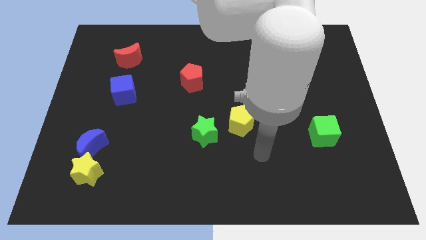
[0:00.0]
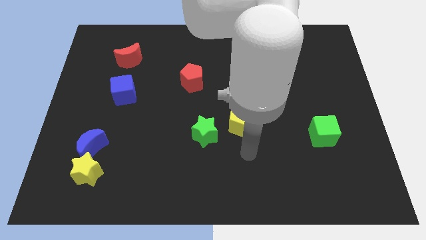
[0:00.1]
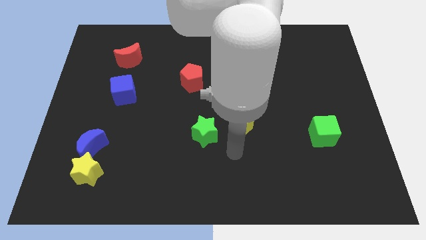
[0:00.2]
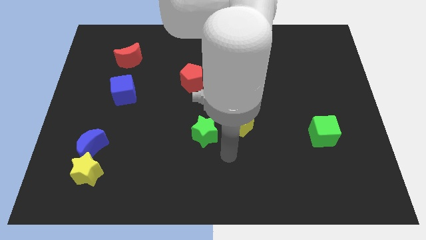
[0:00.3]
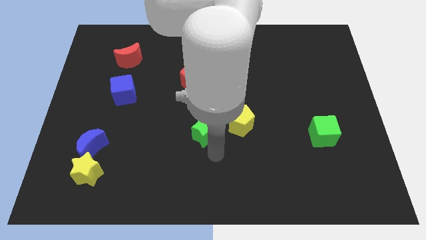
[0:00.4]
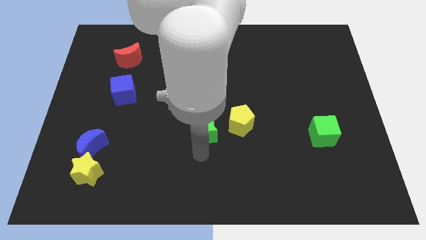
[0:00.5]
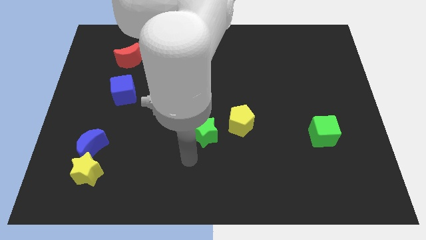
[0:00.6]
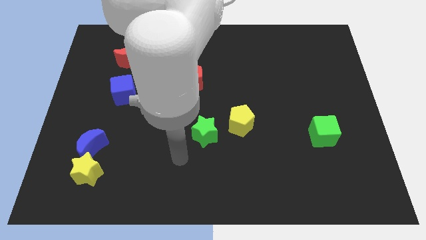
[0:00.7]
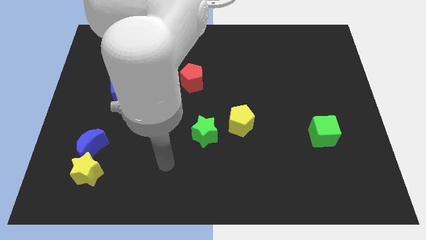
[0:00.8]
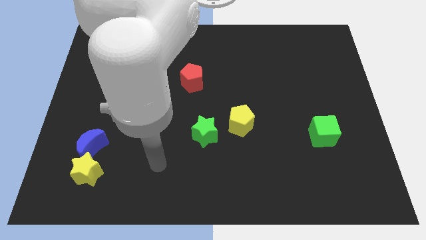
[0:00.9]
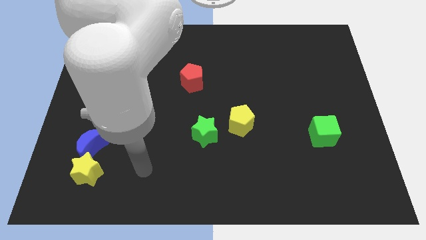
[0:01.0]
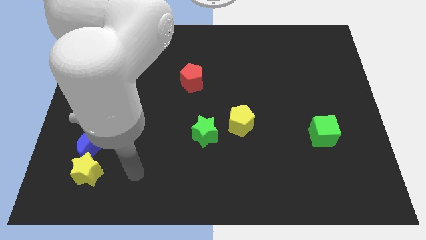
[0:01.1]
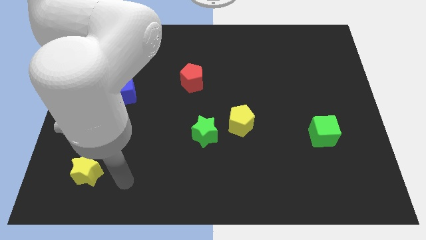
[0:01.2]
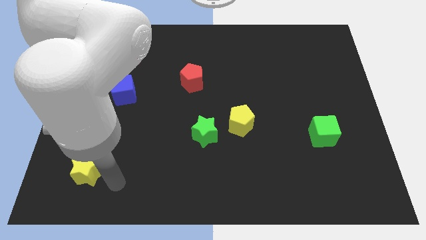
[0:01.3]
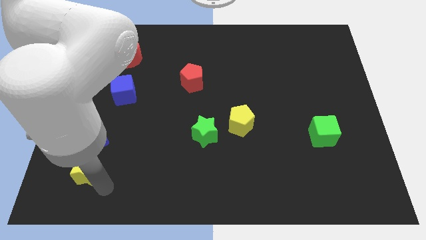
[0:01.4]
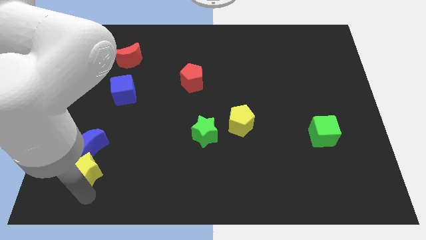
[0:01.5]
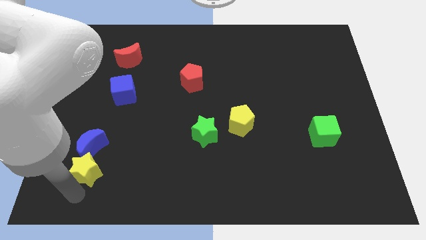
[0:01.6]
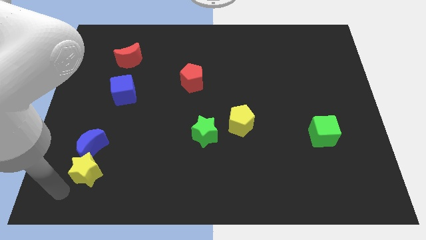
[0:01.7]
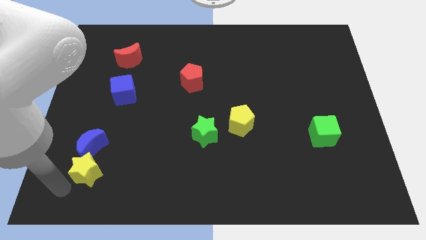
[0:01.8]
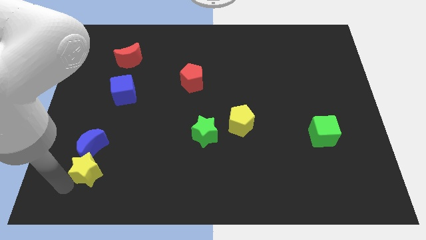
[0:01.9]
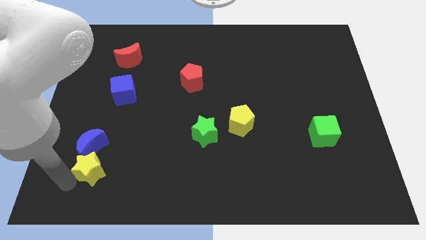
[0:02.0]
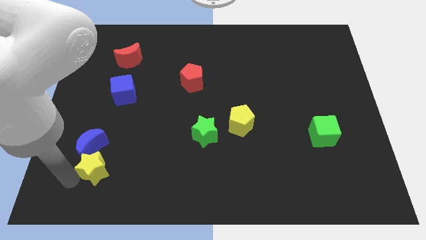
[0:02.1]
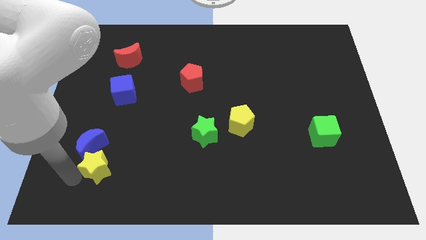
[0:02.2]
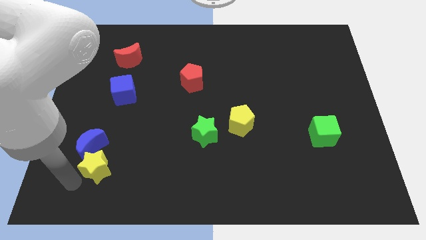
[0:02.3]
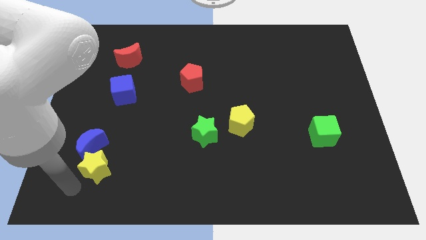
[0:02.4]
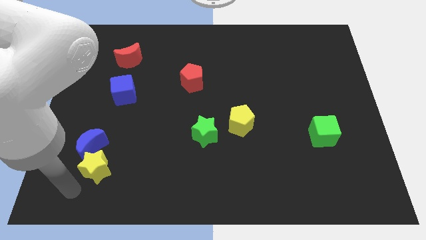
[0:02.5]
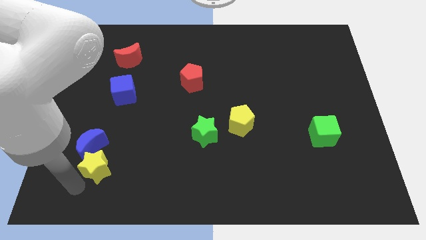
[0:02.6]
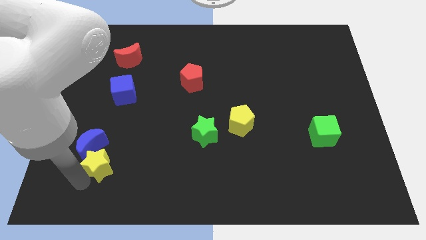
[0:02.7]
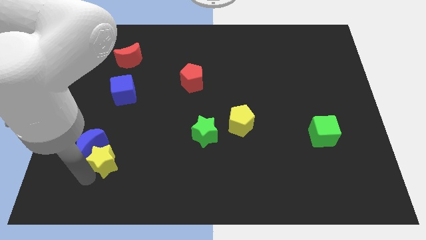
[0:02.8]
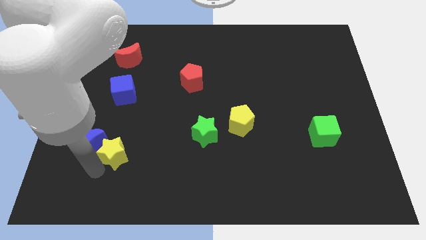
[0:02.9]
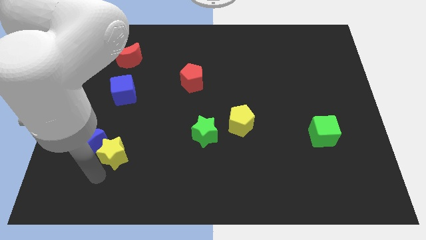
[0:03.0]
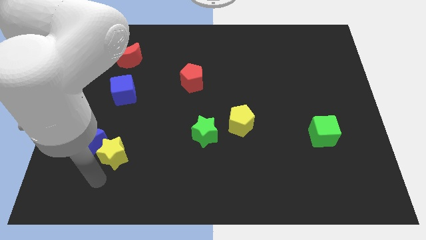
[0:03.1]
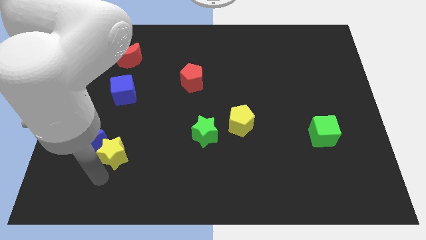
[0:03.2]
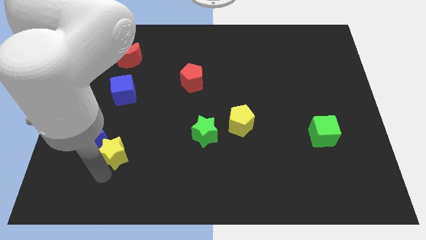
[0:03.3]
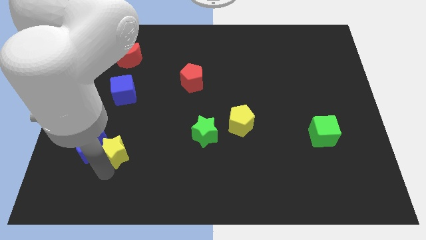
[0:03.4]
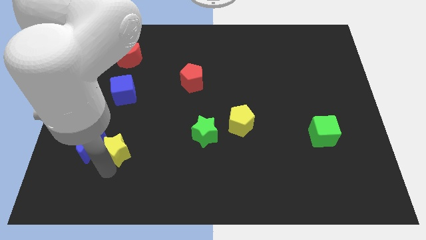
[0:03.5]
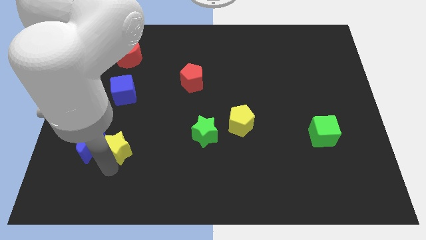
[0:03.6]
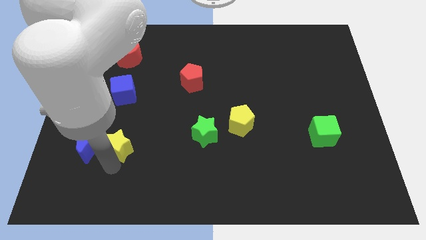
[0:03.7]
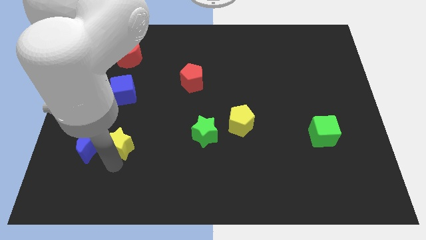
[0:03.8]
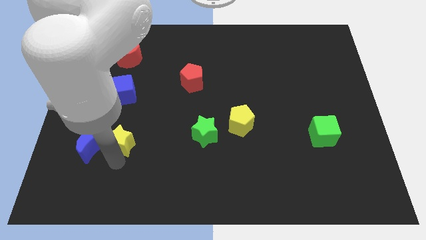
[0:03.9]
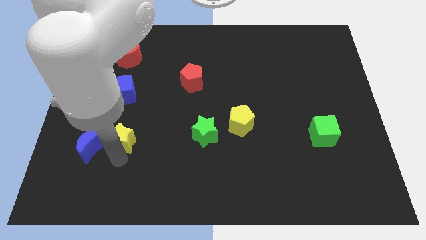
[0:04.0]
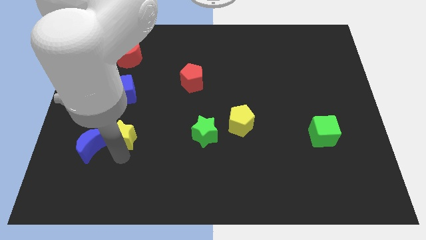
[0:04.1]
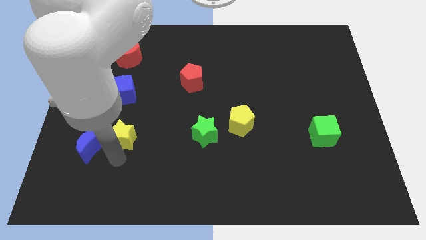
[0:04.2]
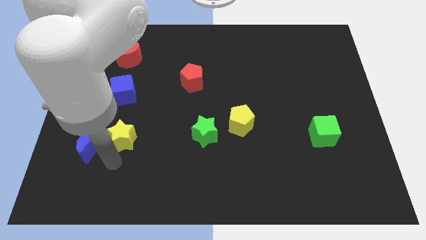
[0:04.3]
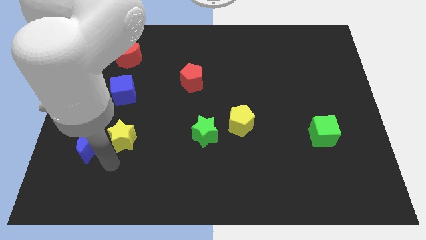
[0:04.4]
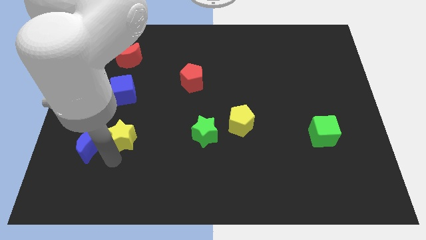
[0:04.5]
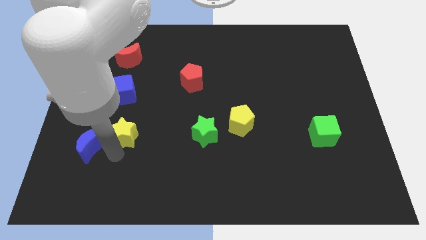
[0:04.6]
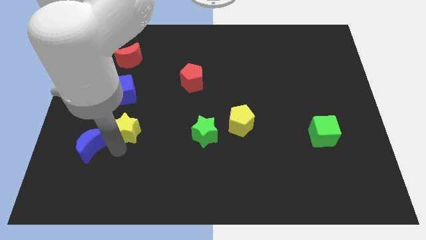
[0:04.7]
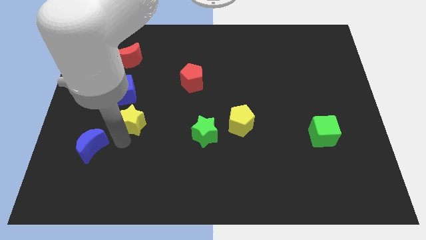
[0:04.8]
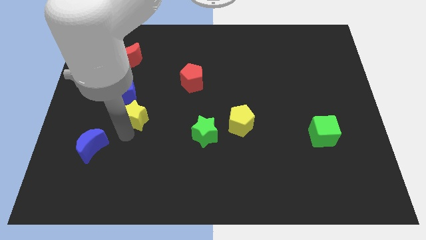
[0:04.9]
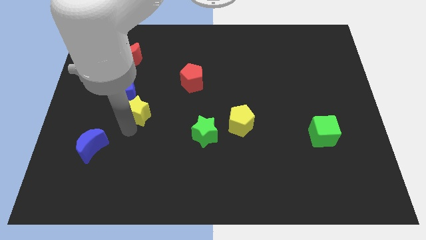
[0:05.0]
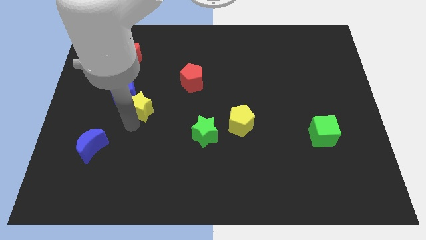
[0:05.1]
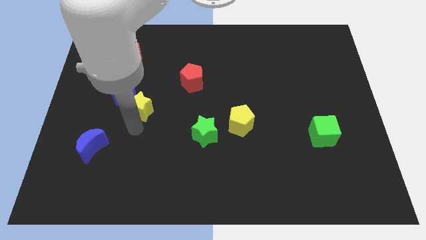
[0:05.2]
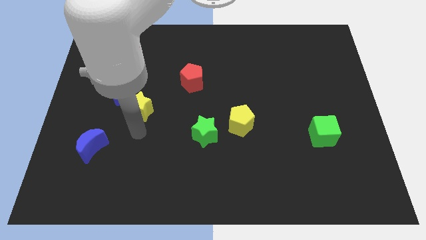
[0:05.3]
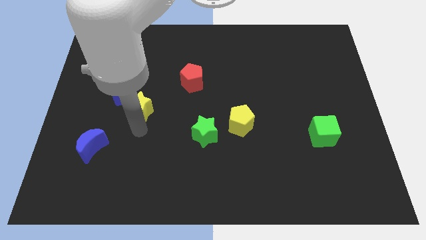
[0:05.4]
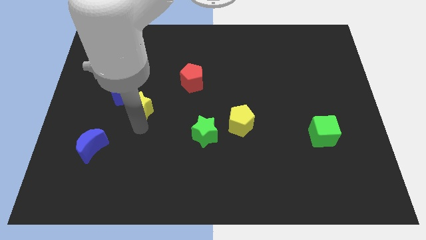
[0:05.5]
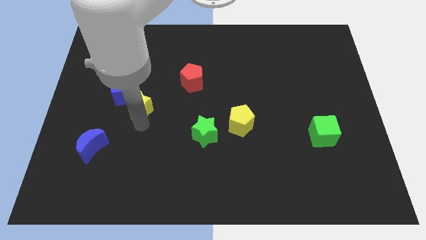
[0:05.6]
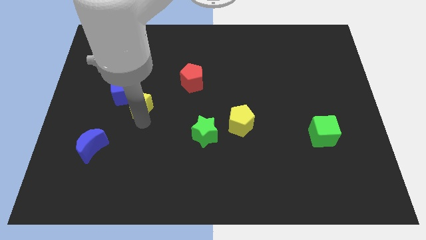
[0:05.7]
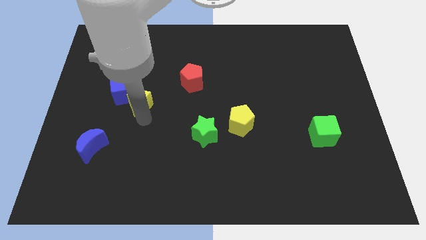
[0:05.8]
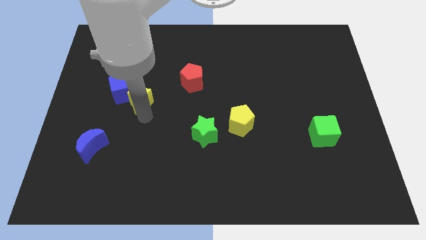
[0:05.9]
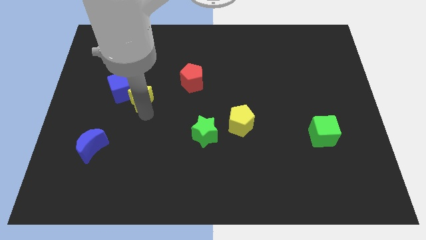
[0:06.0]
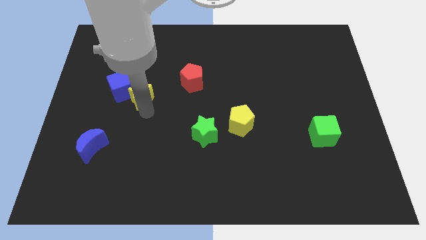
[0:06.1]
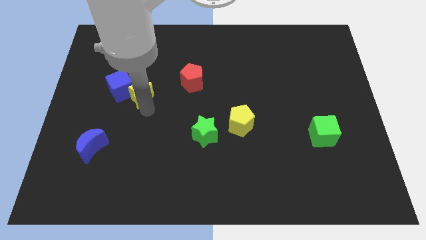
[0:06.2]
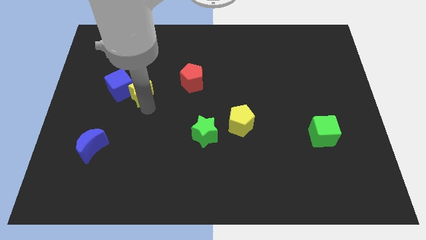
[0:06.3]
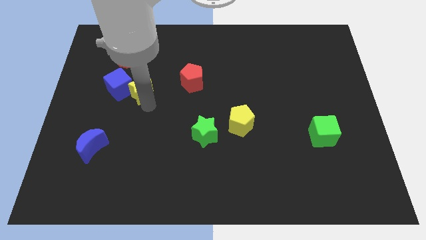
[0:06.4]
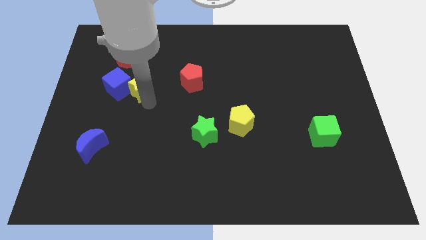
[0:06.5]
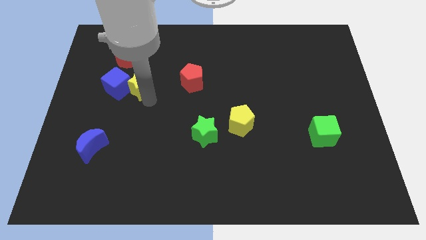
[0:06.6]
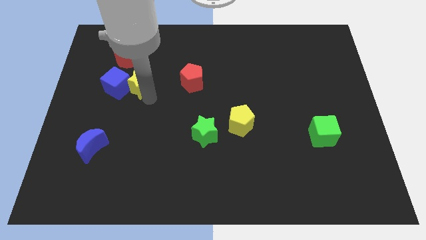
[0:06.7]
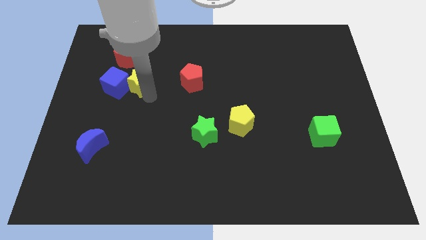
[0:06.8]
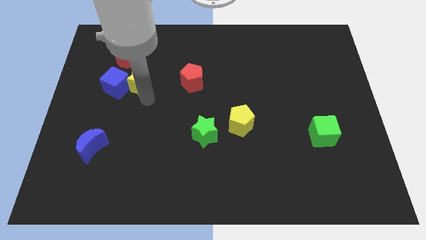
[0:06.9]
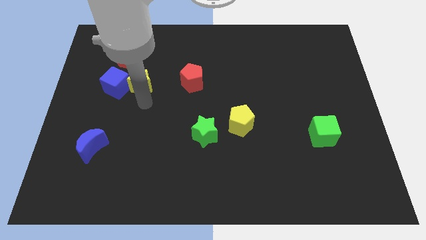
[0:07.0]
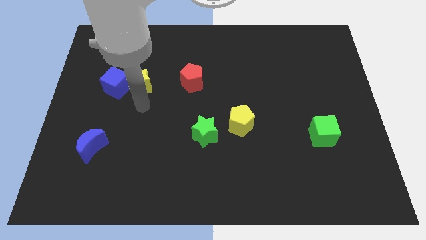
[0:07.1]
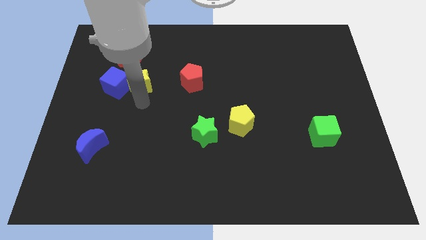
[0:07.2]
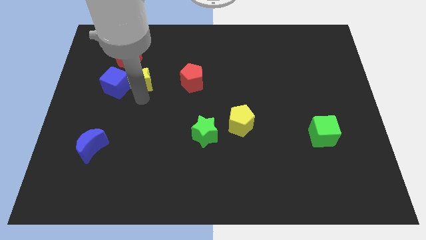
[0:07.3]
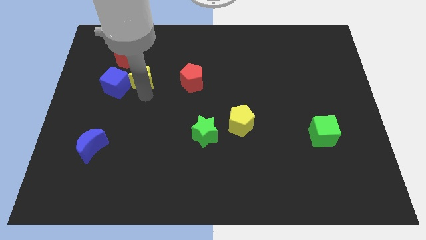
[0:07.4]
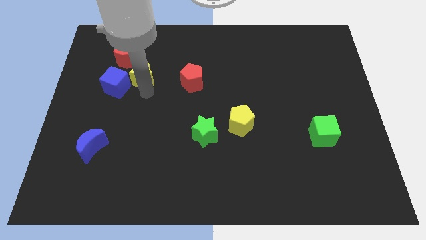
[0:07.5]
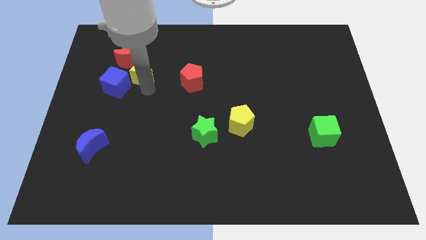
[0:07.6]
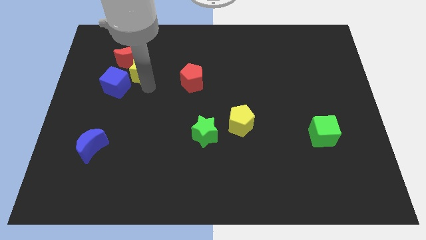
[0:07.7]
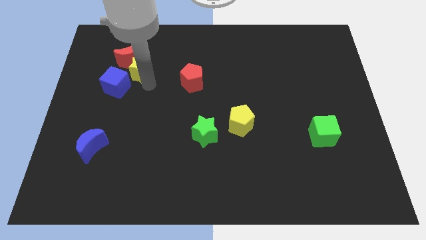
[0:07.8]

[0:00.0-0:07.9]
slide the yellow star close to the red moon
